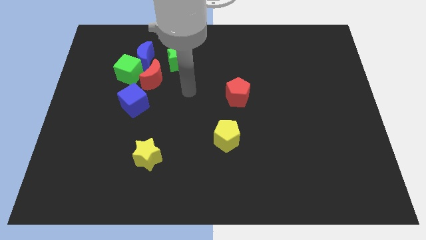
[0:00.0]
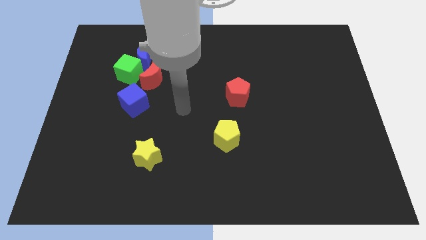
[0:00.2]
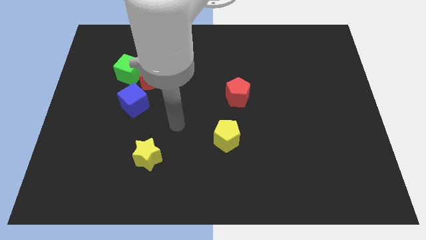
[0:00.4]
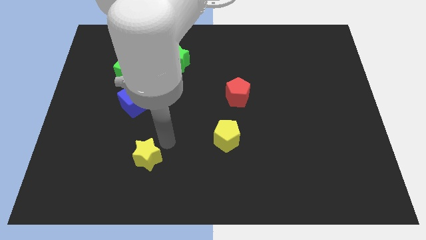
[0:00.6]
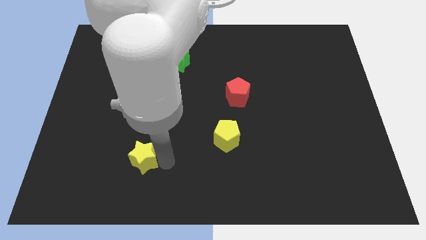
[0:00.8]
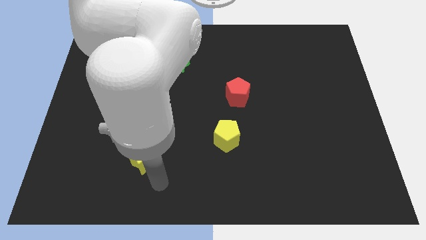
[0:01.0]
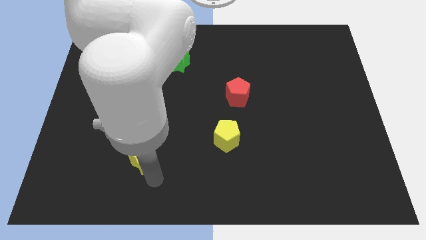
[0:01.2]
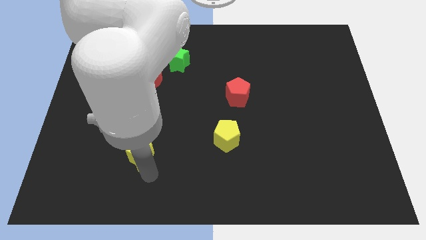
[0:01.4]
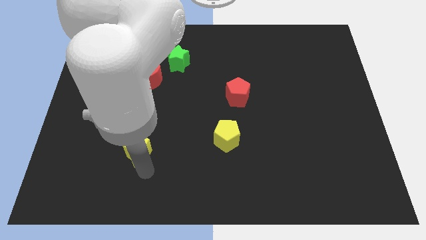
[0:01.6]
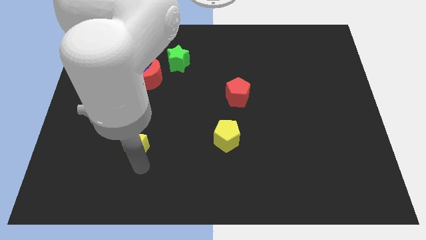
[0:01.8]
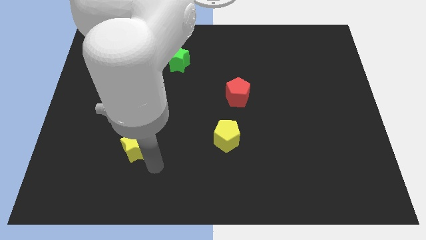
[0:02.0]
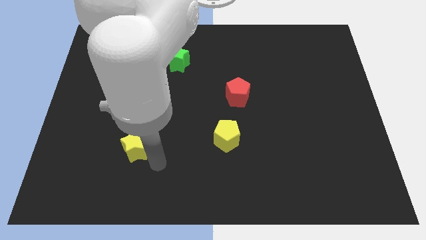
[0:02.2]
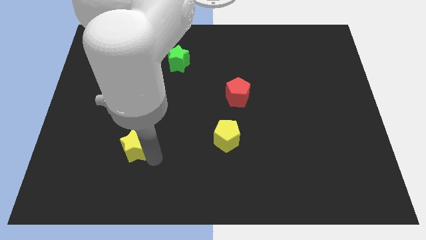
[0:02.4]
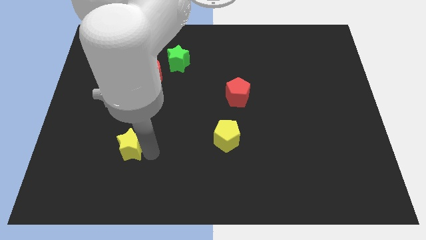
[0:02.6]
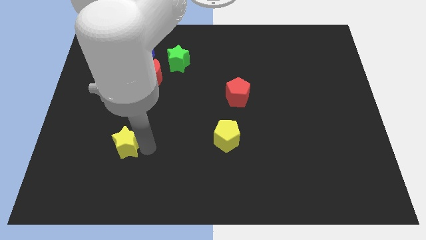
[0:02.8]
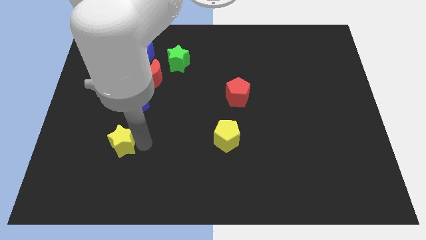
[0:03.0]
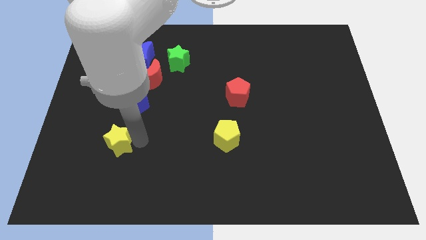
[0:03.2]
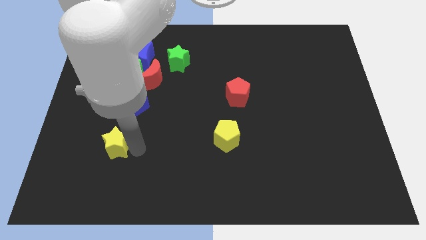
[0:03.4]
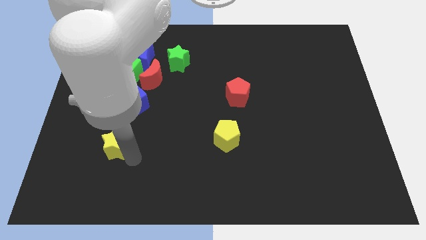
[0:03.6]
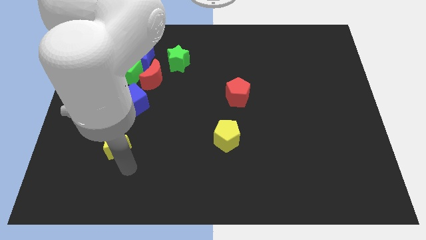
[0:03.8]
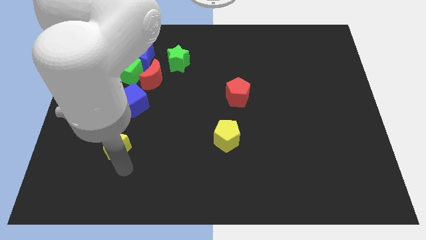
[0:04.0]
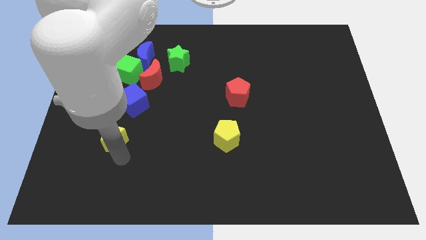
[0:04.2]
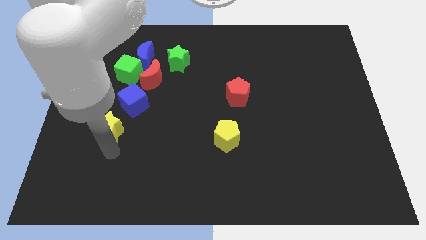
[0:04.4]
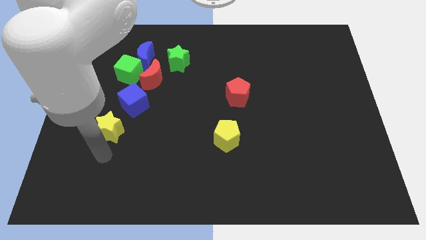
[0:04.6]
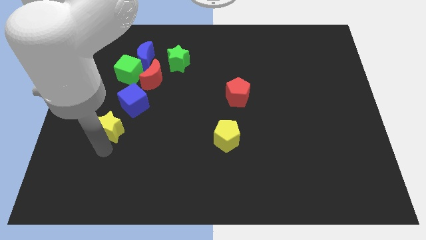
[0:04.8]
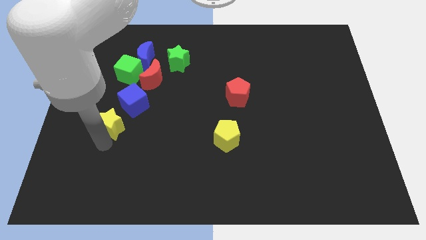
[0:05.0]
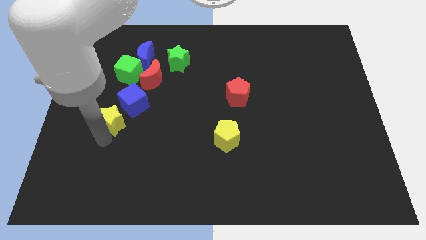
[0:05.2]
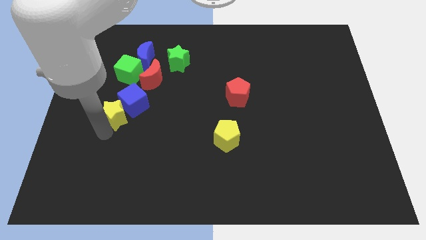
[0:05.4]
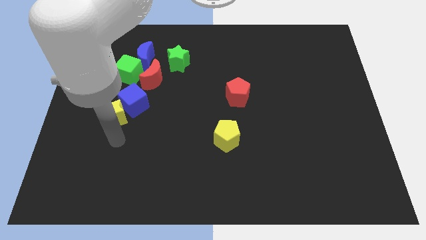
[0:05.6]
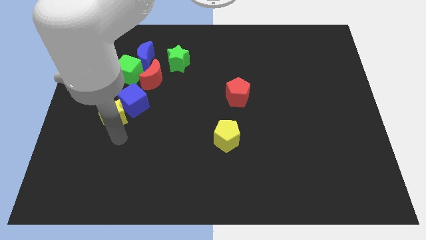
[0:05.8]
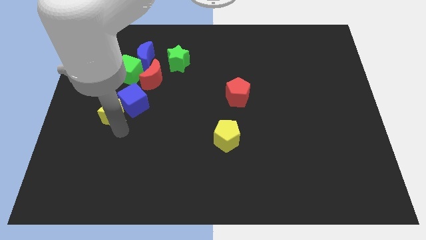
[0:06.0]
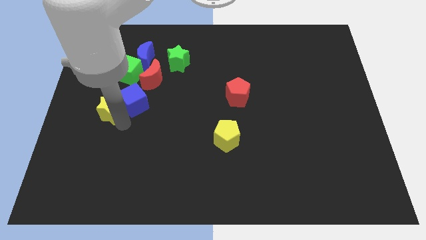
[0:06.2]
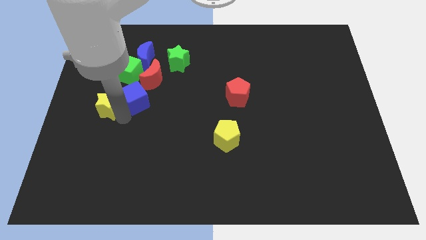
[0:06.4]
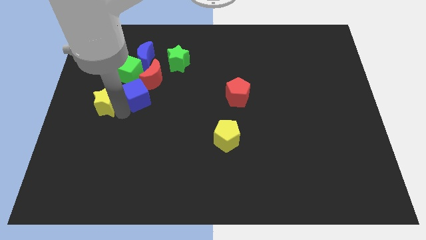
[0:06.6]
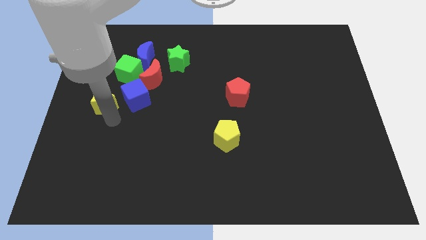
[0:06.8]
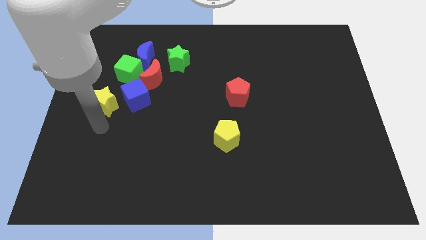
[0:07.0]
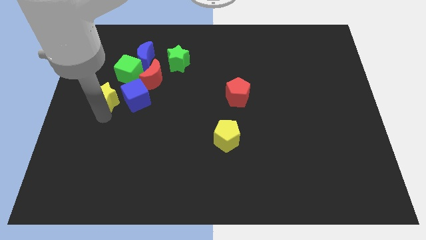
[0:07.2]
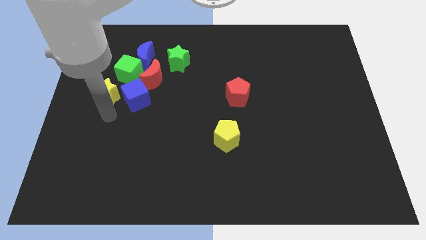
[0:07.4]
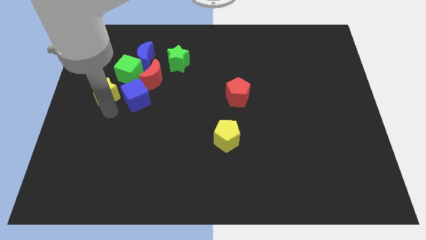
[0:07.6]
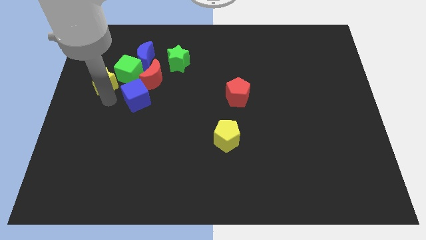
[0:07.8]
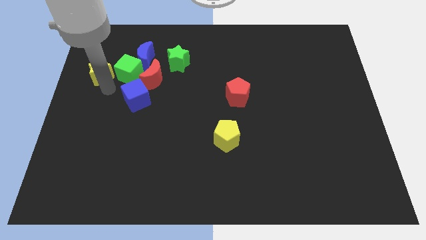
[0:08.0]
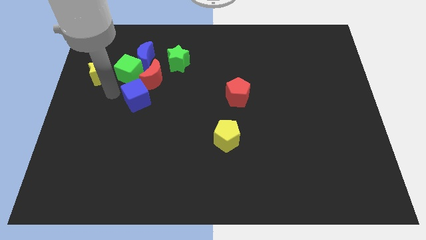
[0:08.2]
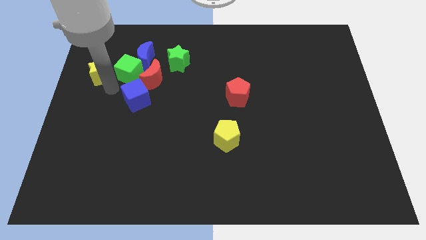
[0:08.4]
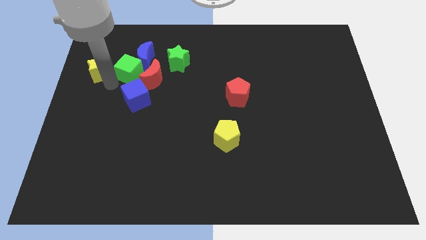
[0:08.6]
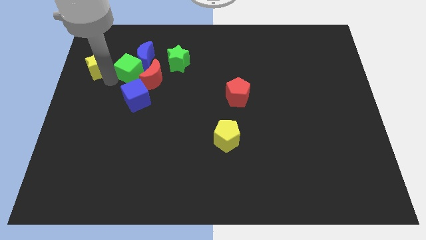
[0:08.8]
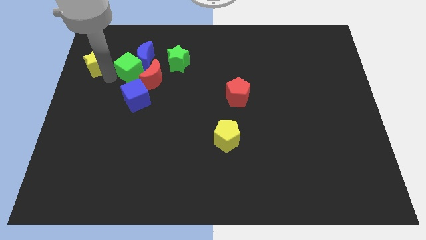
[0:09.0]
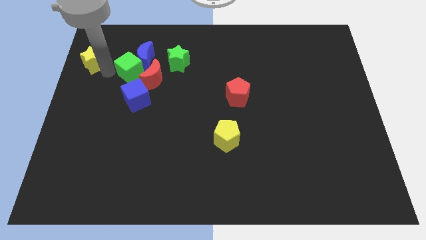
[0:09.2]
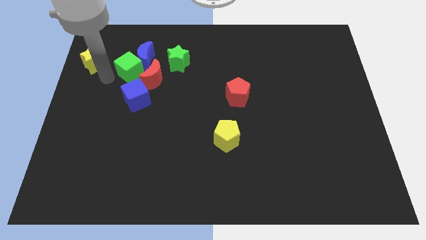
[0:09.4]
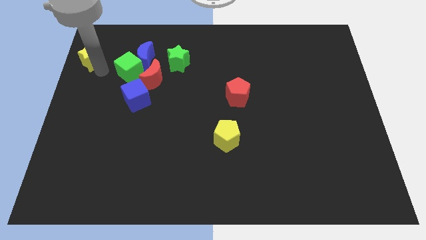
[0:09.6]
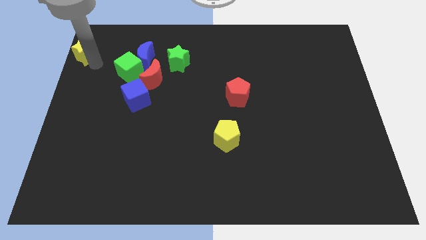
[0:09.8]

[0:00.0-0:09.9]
move the yellow star to the top left corner

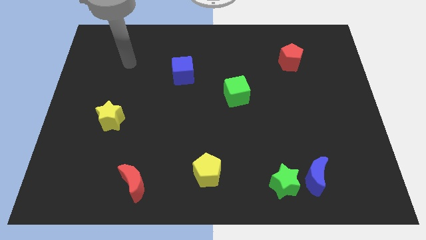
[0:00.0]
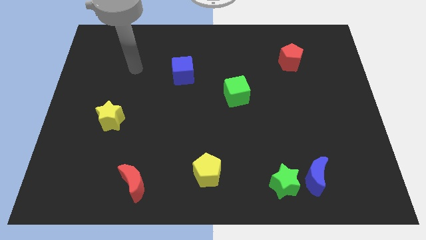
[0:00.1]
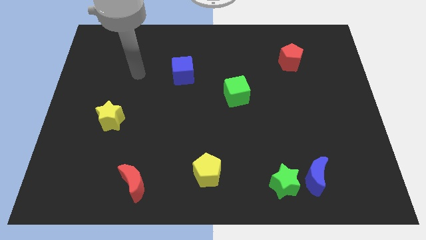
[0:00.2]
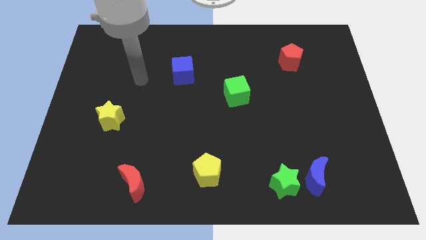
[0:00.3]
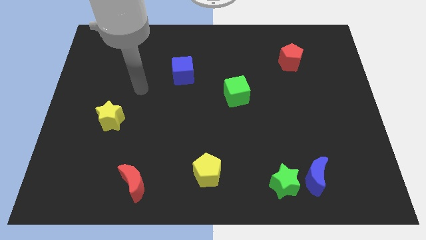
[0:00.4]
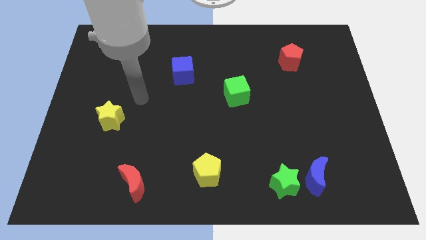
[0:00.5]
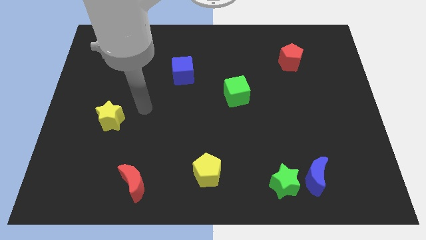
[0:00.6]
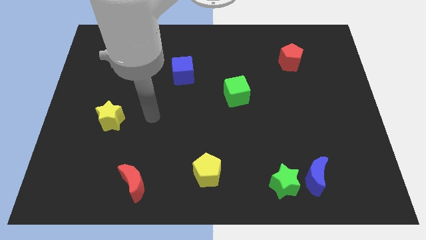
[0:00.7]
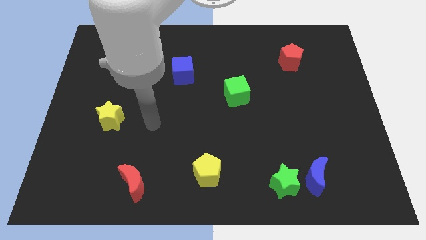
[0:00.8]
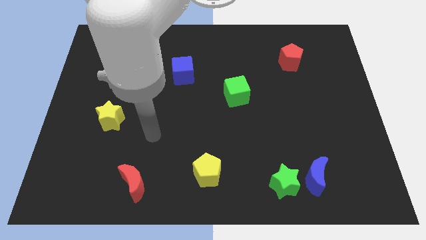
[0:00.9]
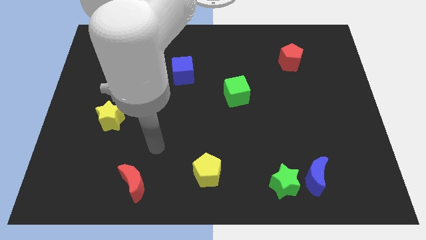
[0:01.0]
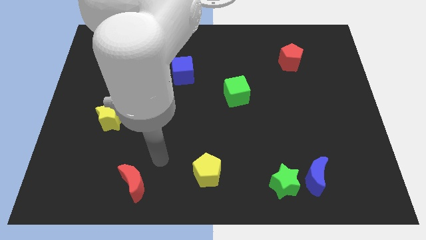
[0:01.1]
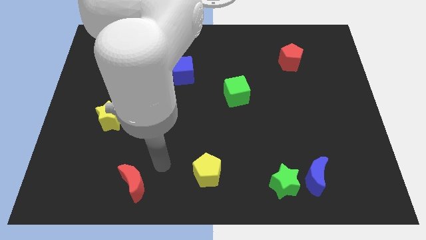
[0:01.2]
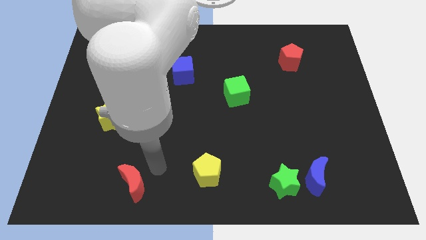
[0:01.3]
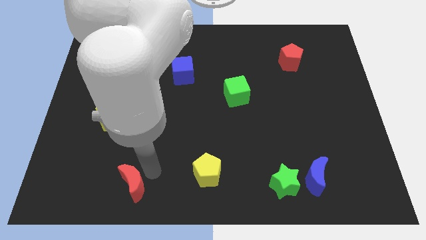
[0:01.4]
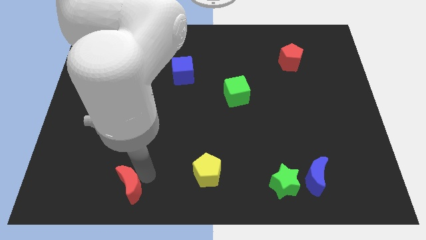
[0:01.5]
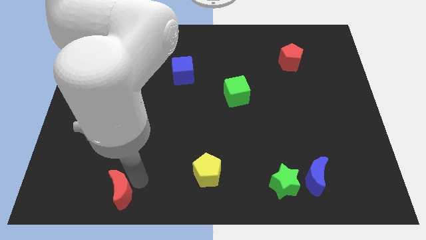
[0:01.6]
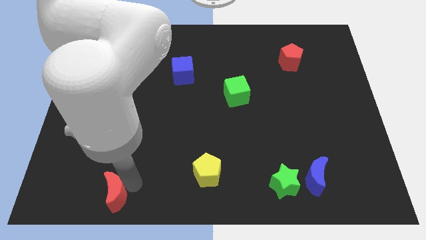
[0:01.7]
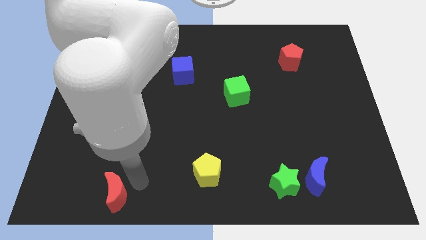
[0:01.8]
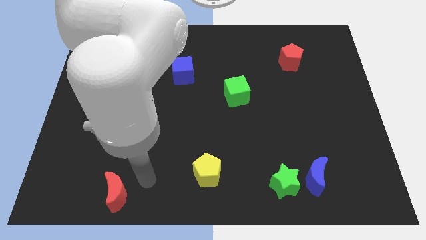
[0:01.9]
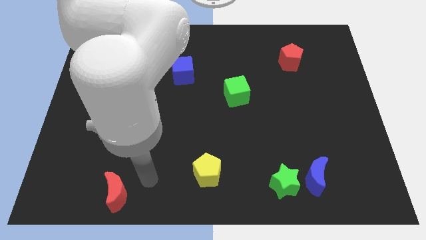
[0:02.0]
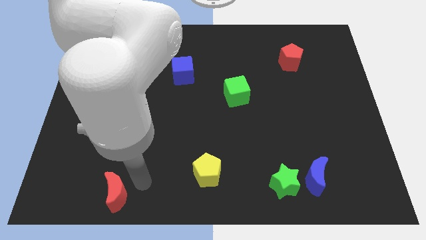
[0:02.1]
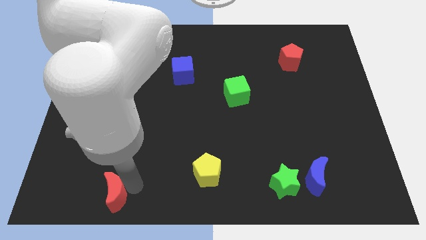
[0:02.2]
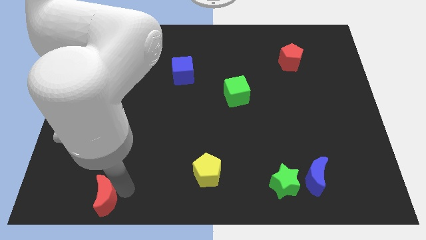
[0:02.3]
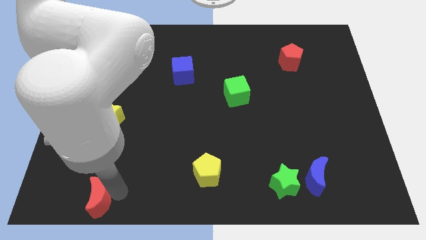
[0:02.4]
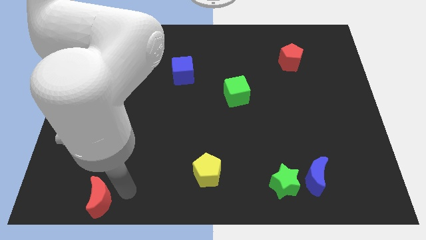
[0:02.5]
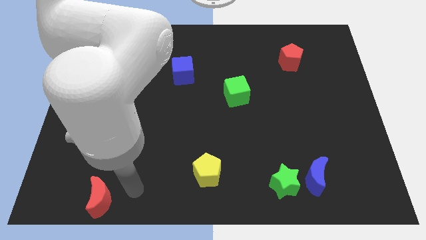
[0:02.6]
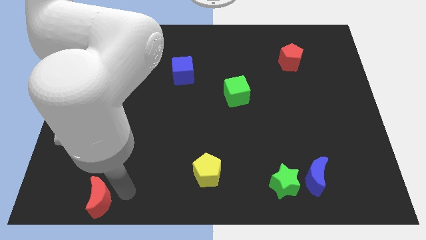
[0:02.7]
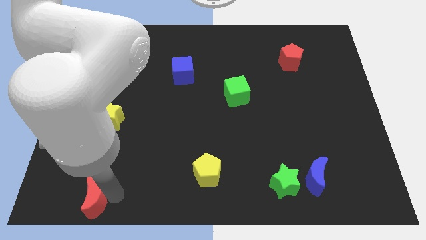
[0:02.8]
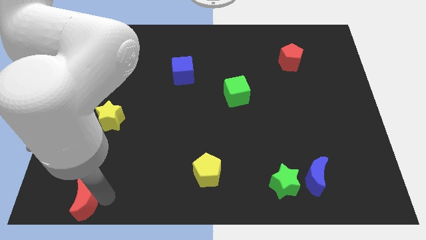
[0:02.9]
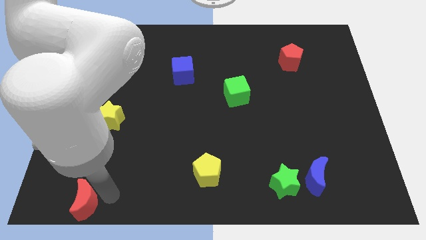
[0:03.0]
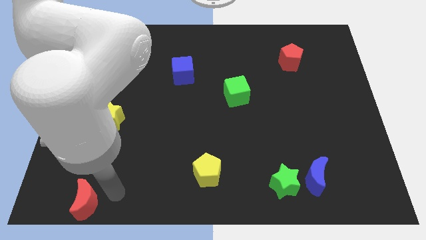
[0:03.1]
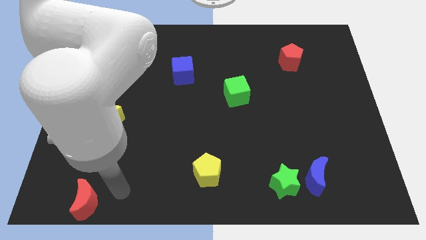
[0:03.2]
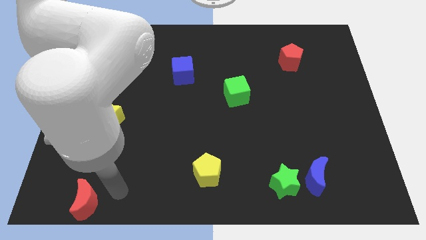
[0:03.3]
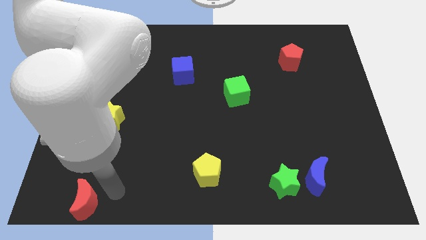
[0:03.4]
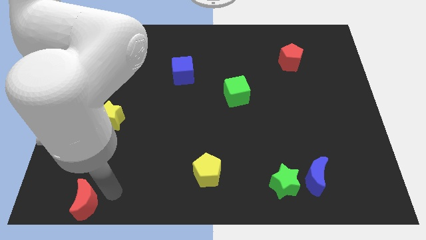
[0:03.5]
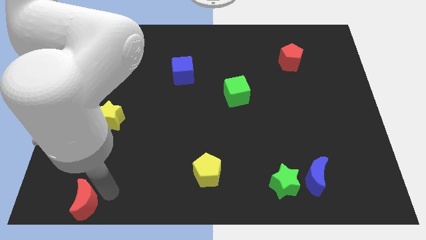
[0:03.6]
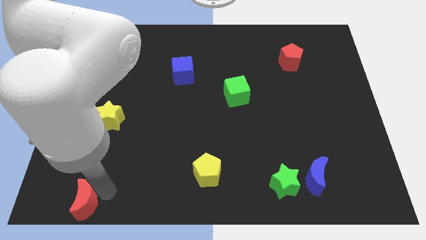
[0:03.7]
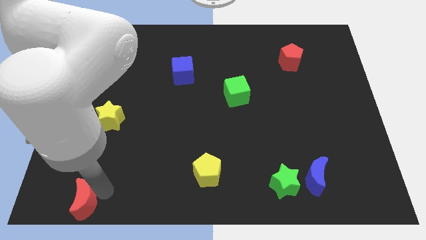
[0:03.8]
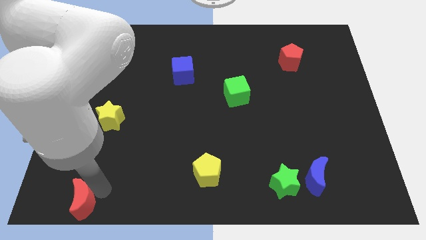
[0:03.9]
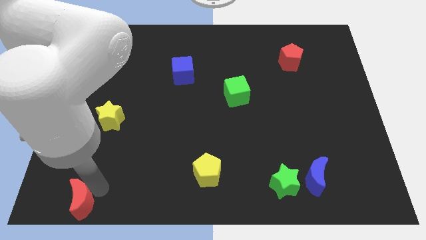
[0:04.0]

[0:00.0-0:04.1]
slide the red moon to the bottom left
